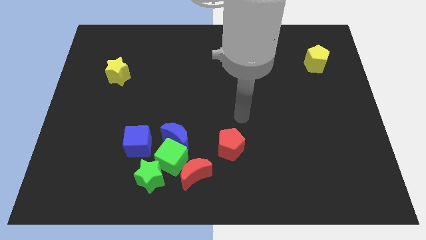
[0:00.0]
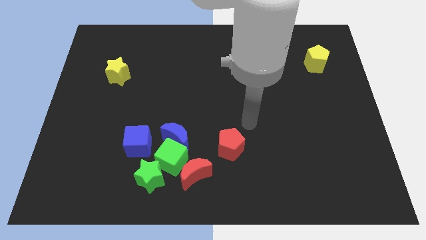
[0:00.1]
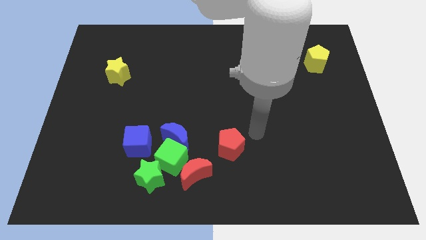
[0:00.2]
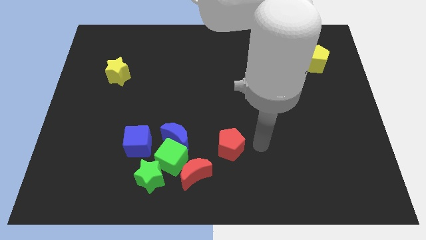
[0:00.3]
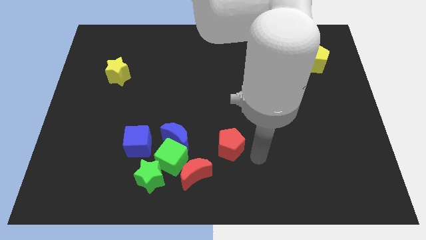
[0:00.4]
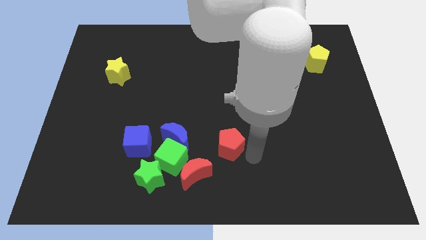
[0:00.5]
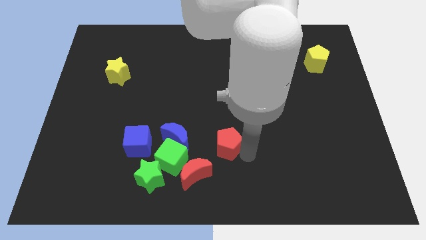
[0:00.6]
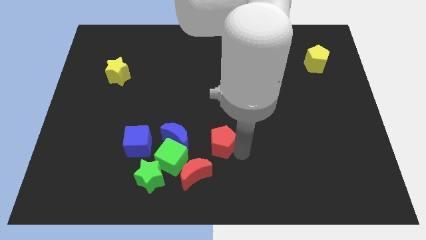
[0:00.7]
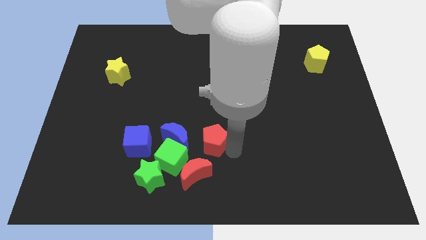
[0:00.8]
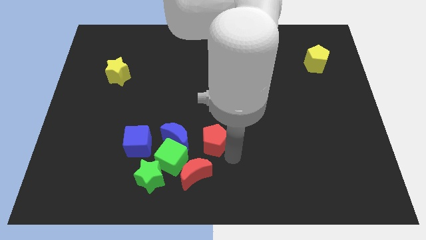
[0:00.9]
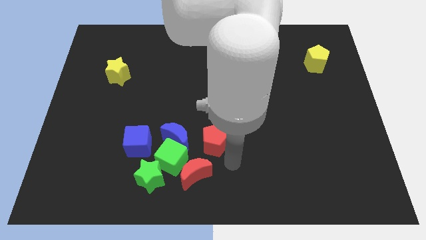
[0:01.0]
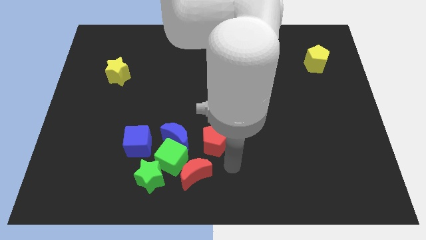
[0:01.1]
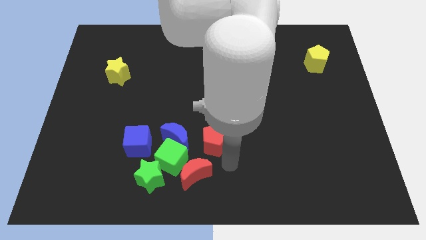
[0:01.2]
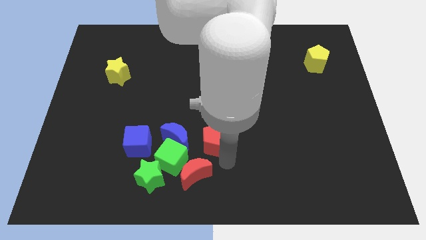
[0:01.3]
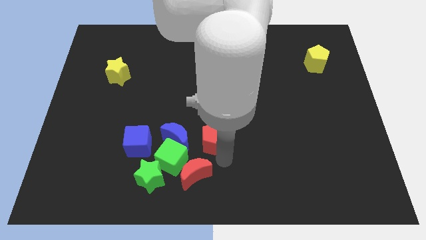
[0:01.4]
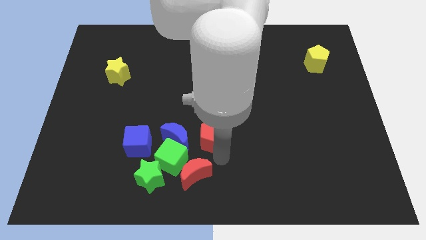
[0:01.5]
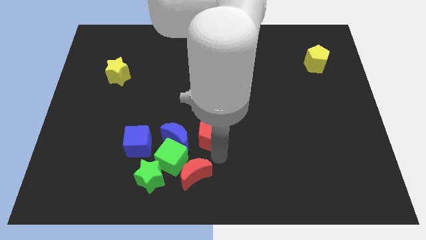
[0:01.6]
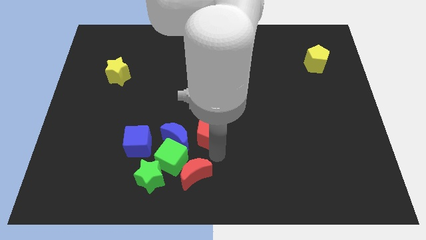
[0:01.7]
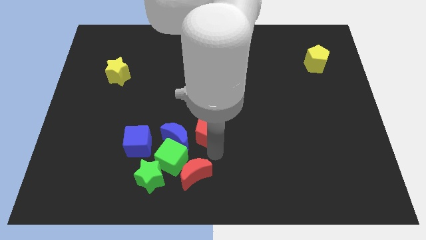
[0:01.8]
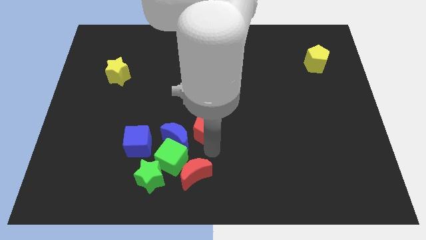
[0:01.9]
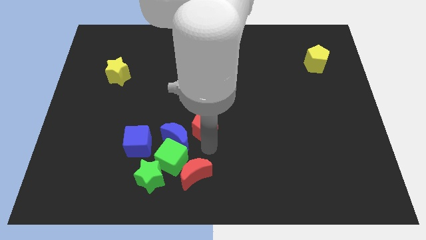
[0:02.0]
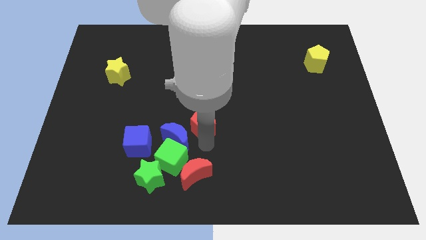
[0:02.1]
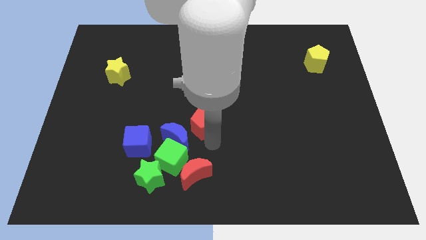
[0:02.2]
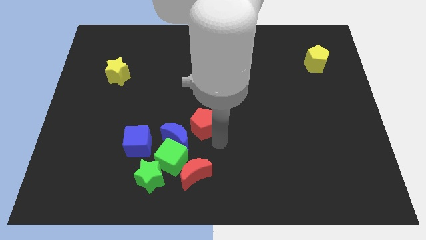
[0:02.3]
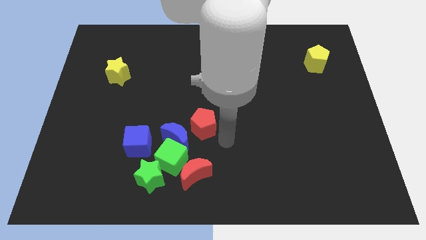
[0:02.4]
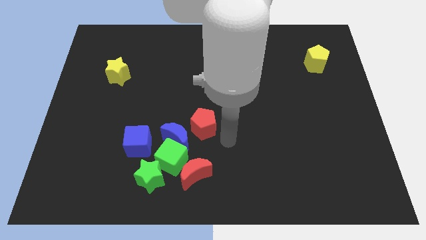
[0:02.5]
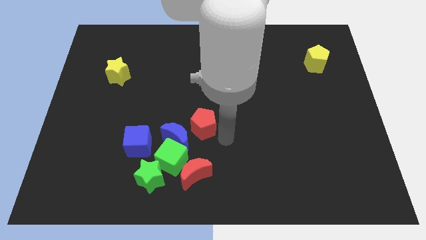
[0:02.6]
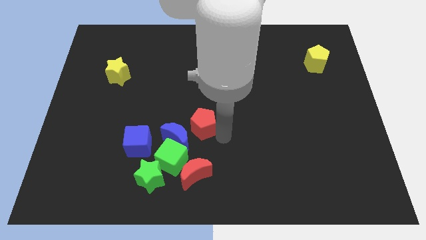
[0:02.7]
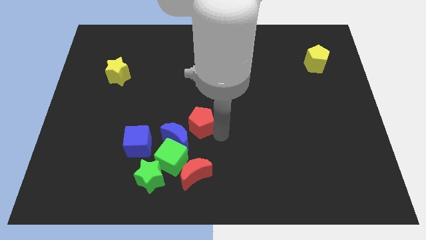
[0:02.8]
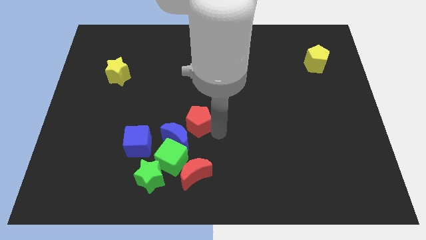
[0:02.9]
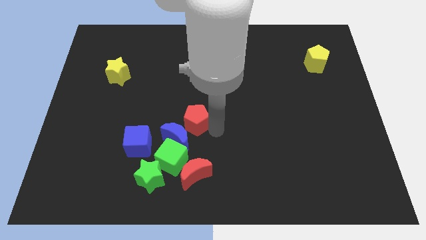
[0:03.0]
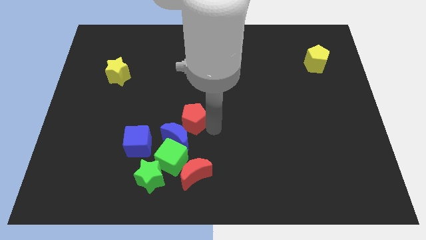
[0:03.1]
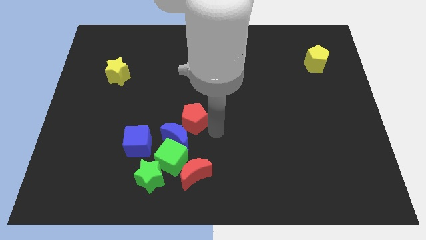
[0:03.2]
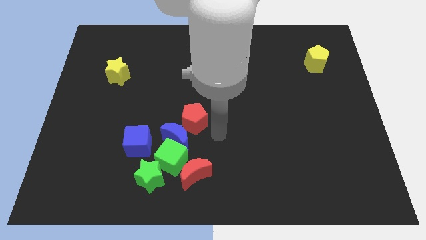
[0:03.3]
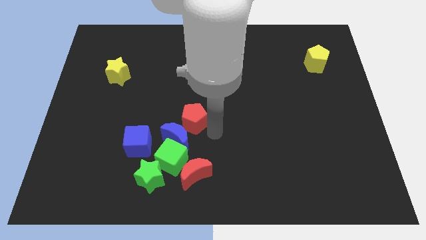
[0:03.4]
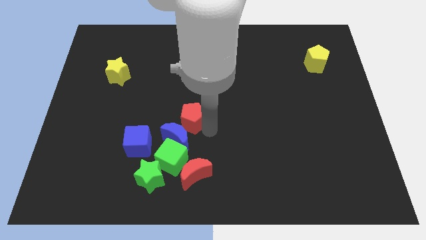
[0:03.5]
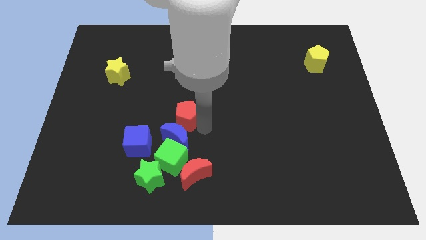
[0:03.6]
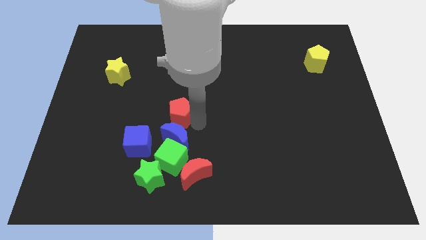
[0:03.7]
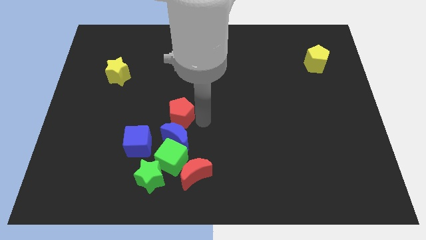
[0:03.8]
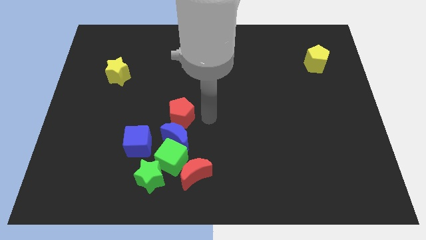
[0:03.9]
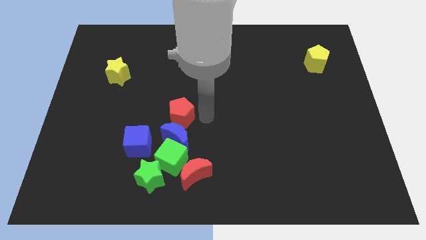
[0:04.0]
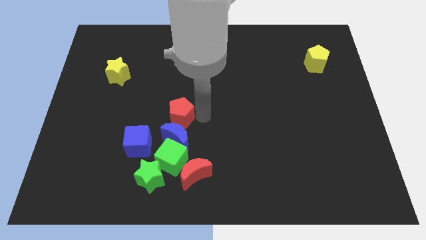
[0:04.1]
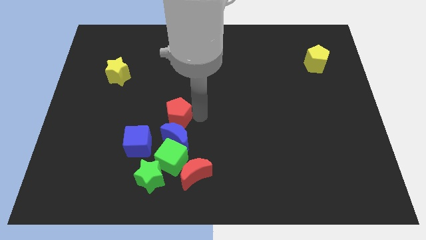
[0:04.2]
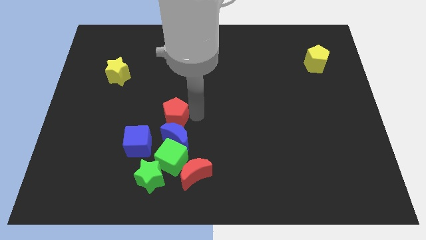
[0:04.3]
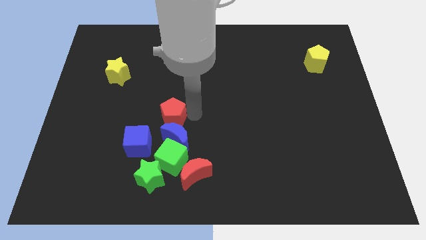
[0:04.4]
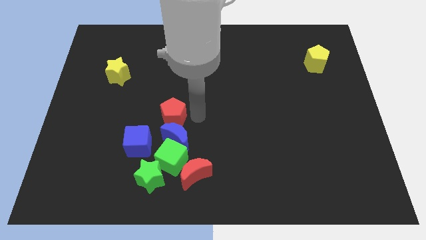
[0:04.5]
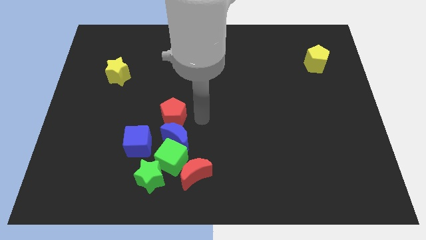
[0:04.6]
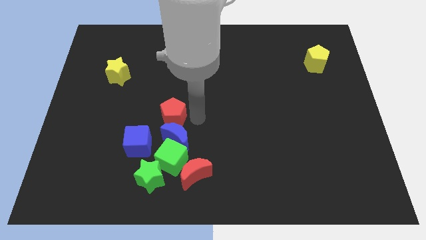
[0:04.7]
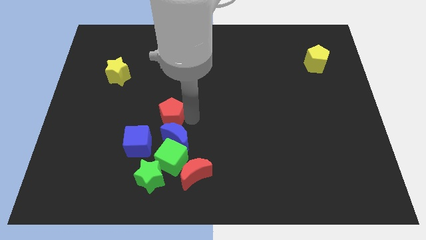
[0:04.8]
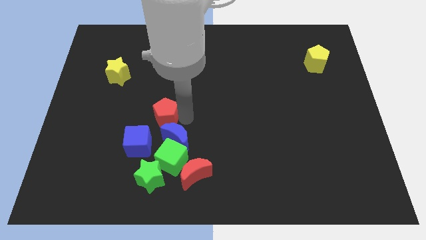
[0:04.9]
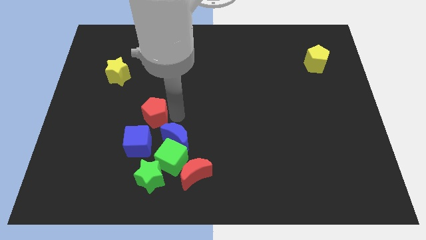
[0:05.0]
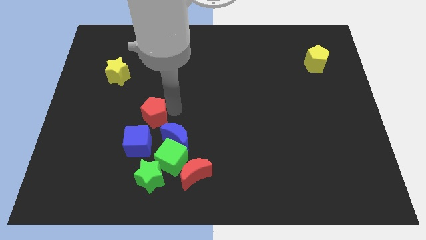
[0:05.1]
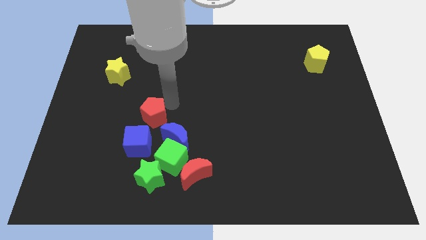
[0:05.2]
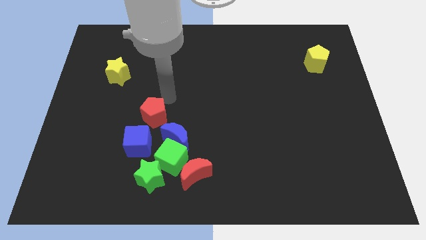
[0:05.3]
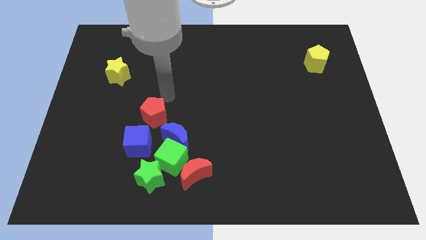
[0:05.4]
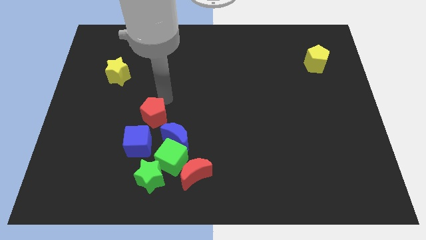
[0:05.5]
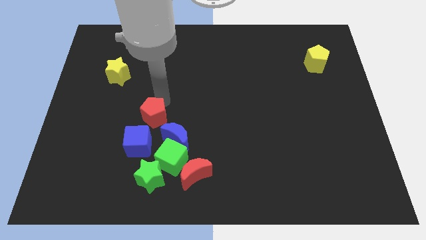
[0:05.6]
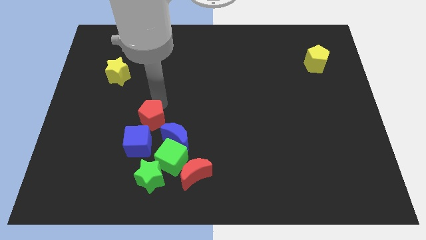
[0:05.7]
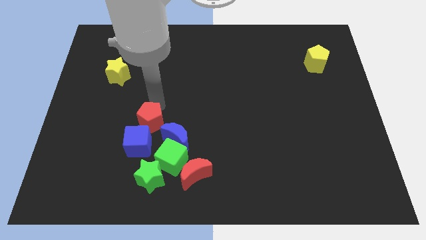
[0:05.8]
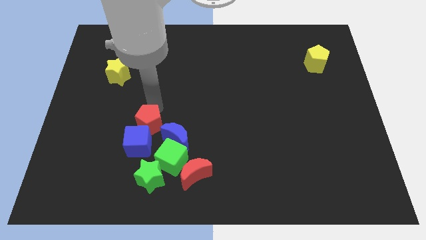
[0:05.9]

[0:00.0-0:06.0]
move the red pentagon next to the blue cube

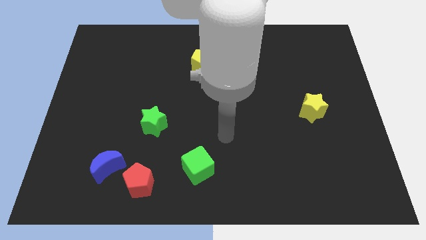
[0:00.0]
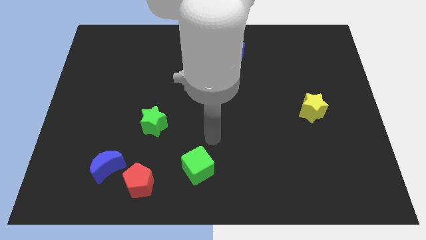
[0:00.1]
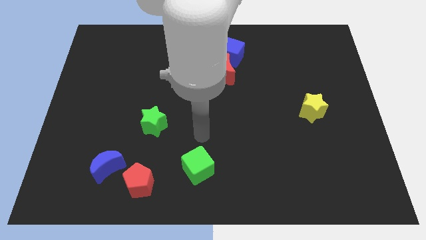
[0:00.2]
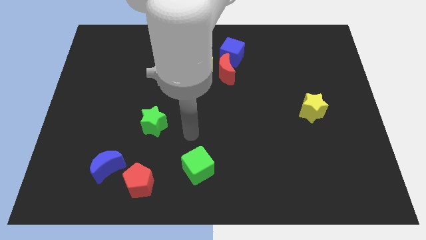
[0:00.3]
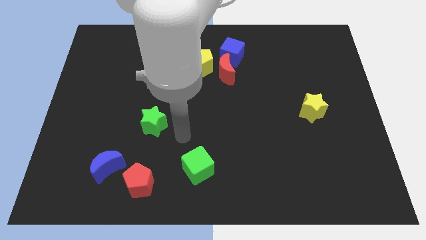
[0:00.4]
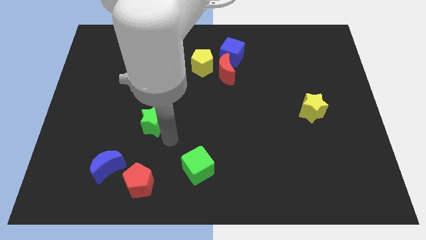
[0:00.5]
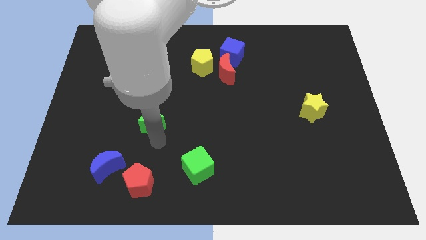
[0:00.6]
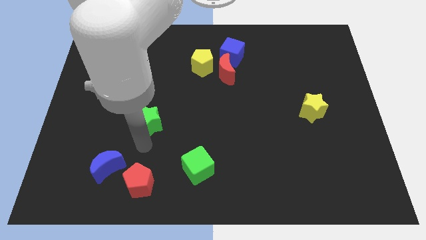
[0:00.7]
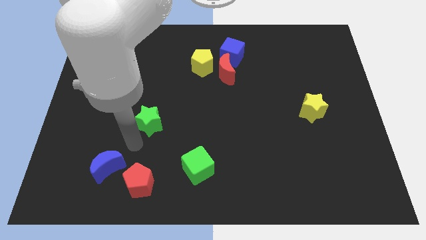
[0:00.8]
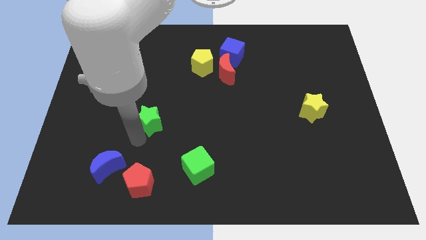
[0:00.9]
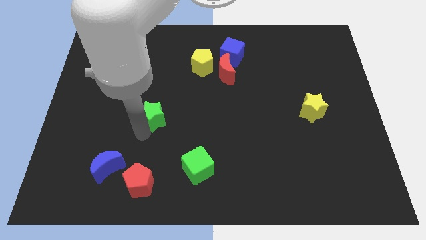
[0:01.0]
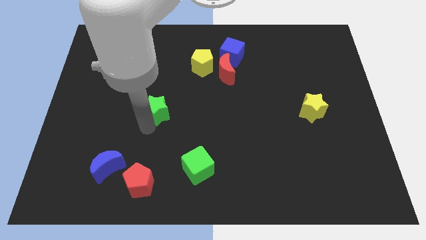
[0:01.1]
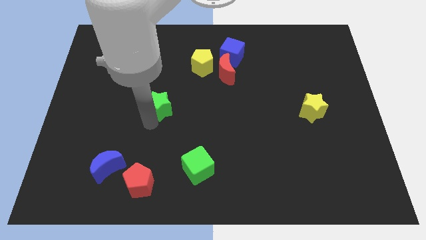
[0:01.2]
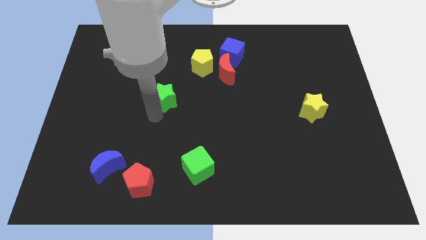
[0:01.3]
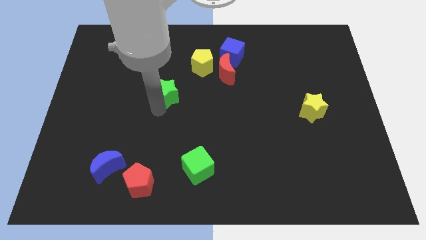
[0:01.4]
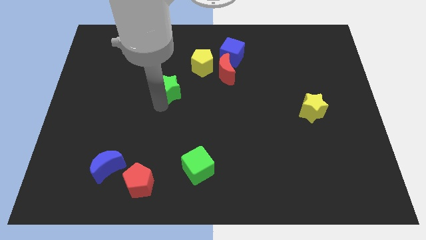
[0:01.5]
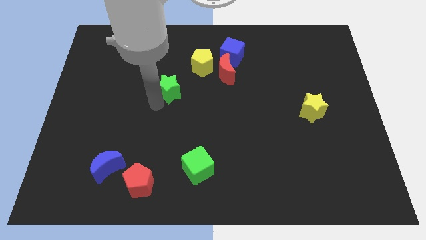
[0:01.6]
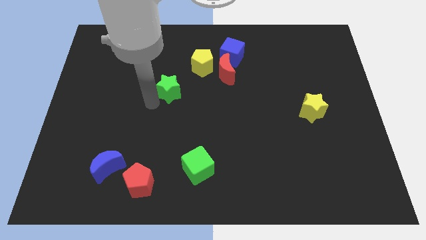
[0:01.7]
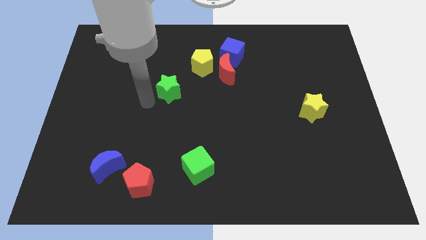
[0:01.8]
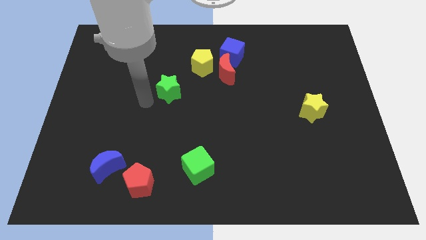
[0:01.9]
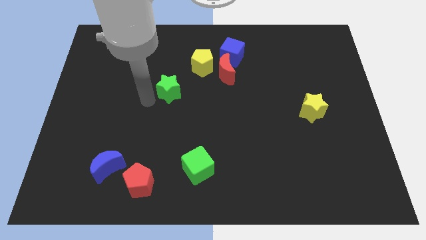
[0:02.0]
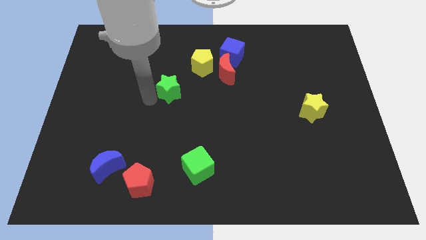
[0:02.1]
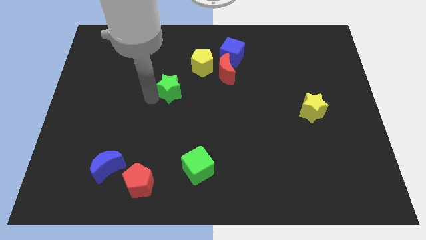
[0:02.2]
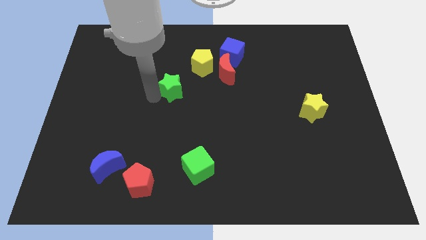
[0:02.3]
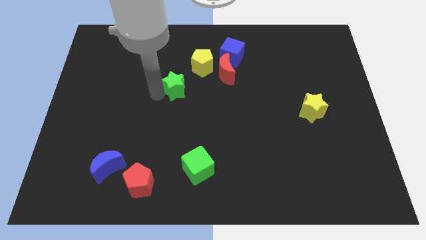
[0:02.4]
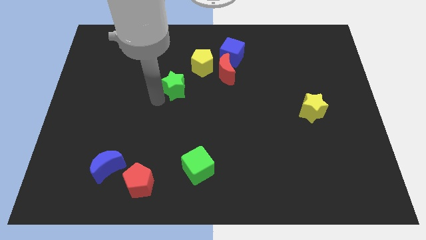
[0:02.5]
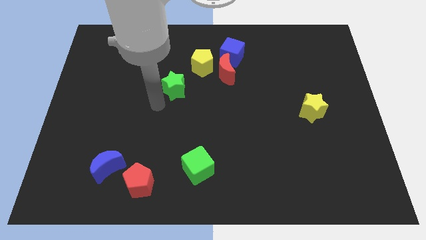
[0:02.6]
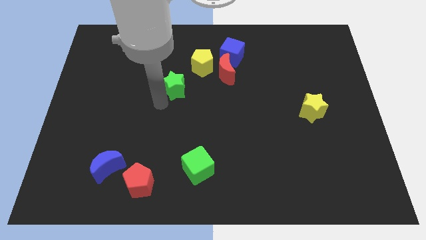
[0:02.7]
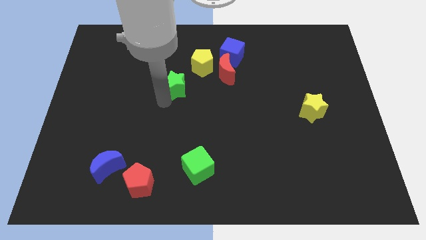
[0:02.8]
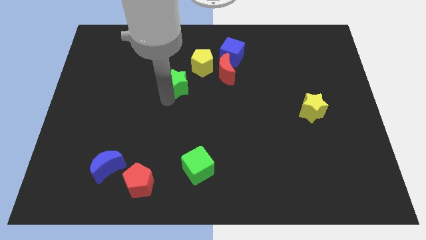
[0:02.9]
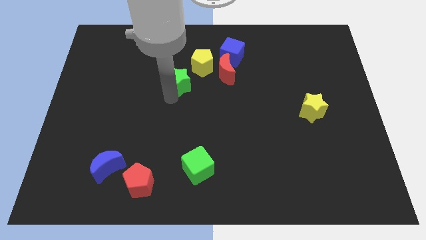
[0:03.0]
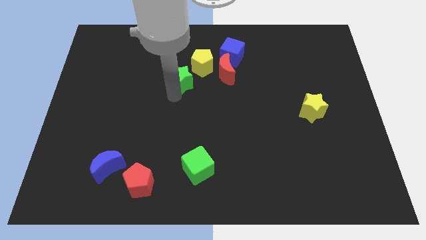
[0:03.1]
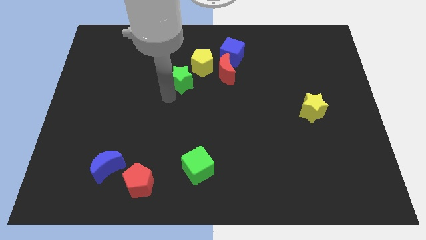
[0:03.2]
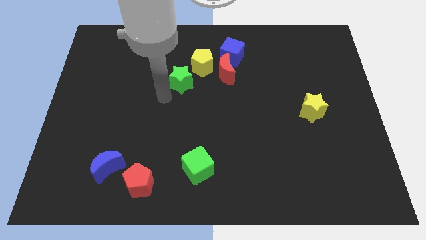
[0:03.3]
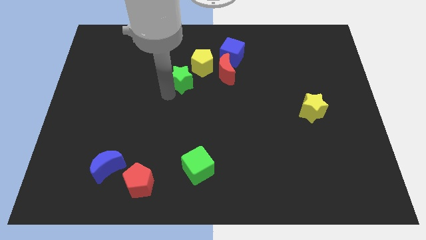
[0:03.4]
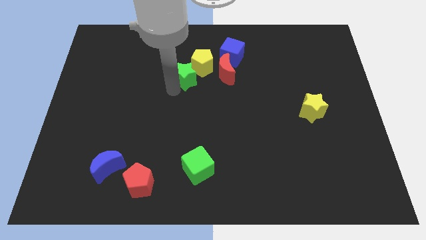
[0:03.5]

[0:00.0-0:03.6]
push the green star to the yellow pentagon
